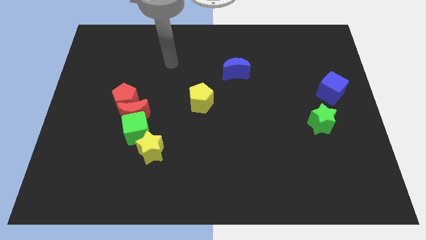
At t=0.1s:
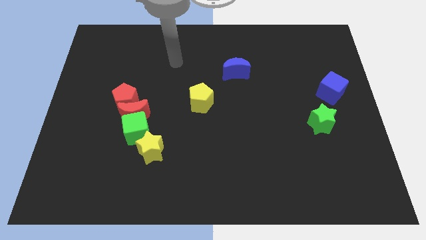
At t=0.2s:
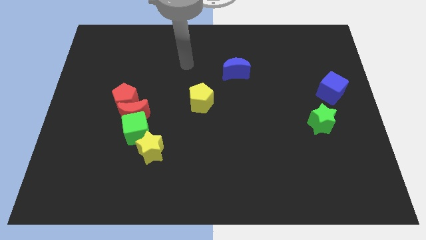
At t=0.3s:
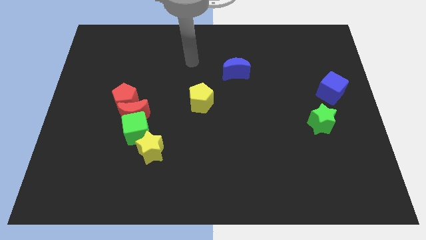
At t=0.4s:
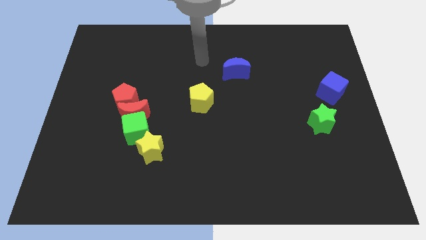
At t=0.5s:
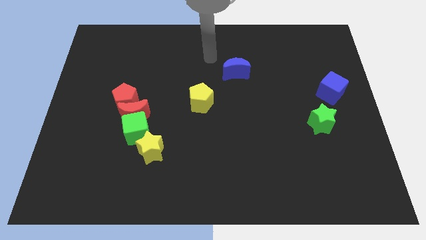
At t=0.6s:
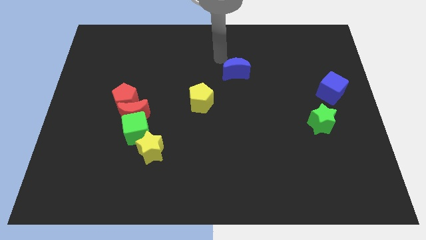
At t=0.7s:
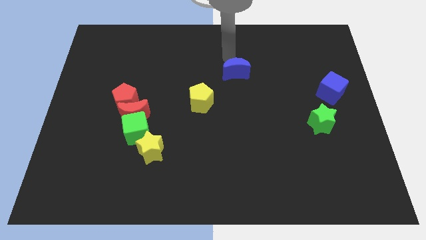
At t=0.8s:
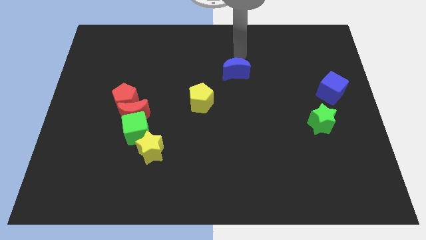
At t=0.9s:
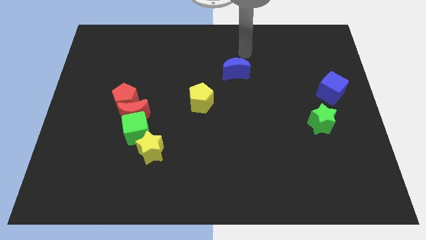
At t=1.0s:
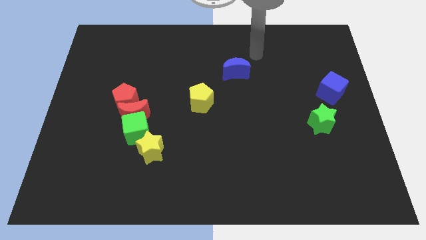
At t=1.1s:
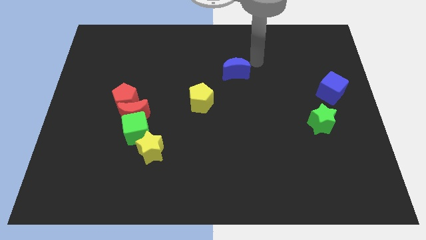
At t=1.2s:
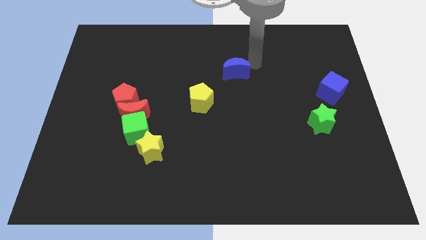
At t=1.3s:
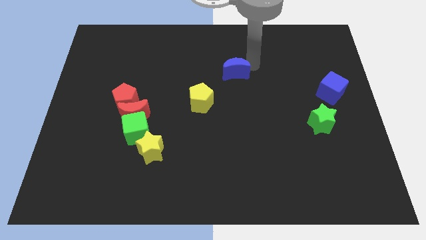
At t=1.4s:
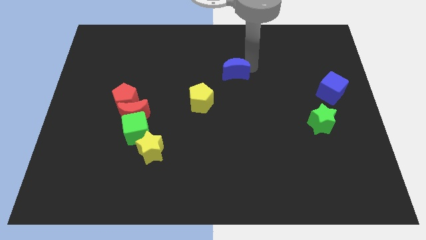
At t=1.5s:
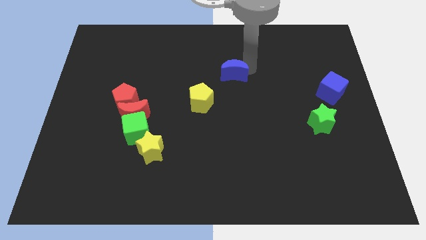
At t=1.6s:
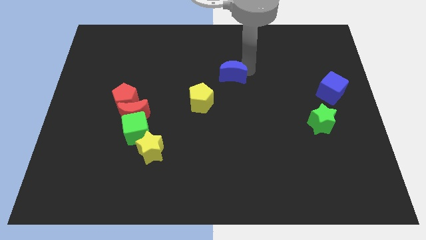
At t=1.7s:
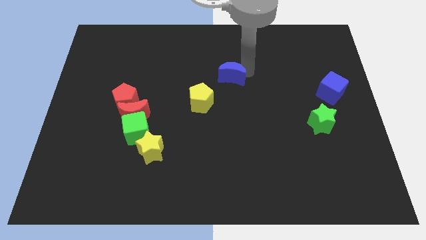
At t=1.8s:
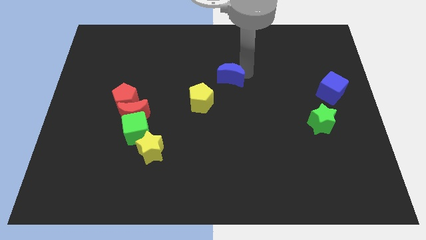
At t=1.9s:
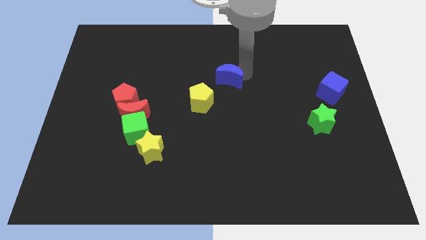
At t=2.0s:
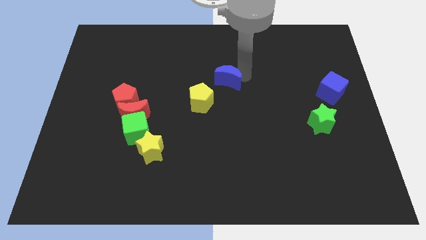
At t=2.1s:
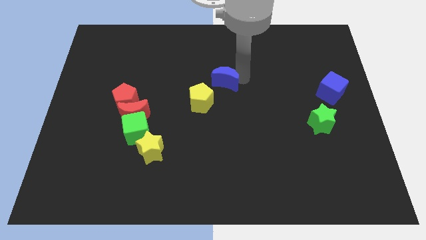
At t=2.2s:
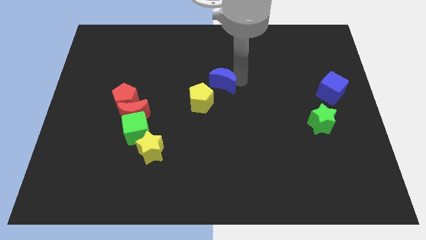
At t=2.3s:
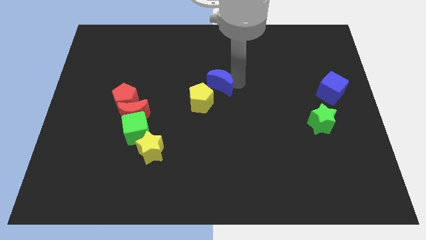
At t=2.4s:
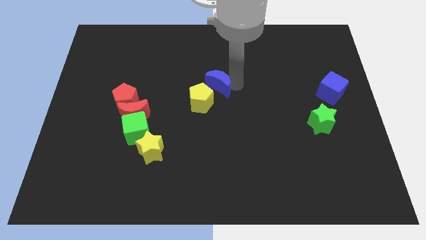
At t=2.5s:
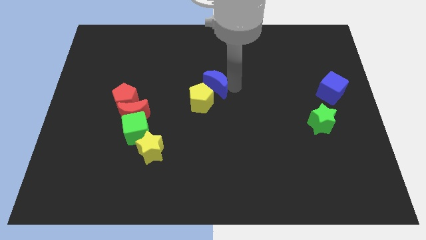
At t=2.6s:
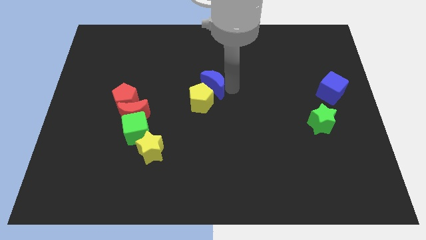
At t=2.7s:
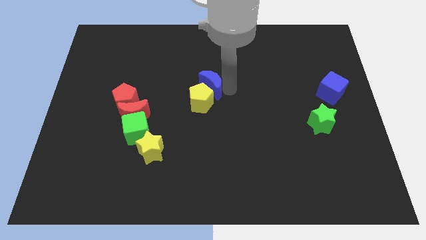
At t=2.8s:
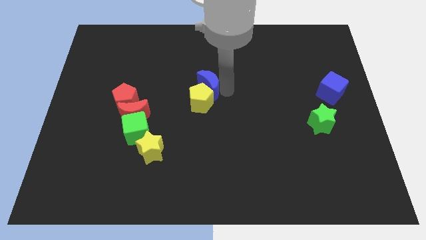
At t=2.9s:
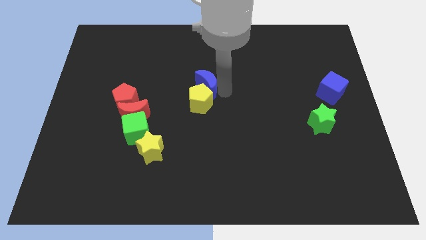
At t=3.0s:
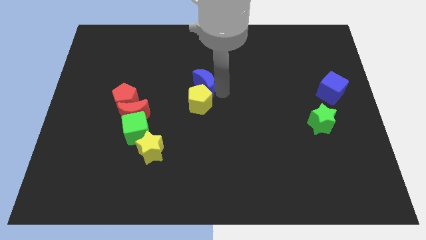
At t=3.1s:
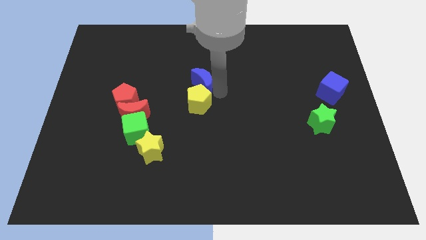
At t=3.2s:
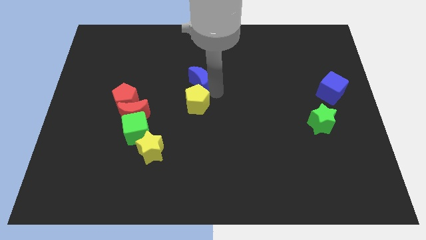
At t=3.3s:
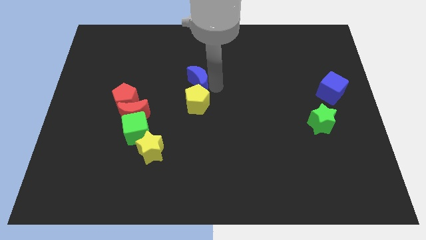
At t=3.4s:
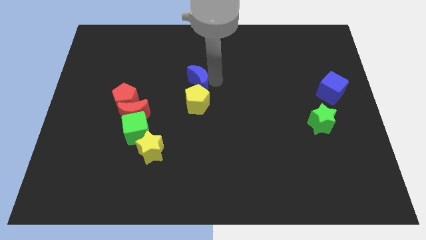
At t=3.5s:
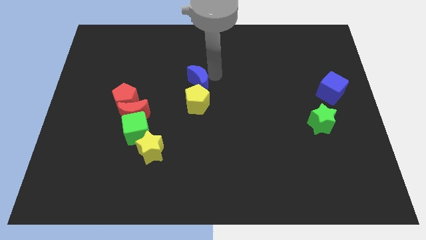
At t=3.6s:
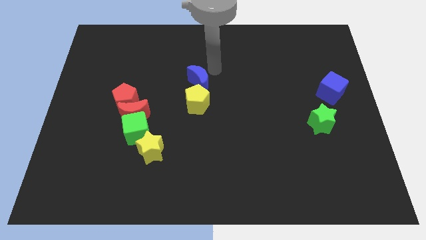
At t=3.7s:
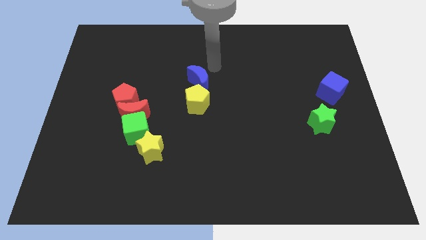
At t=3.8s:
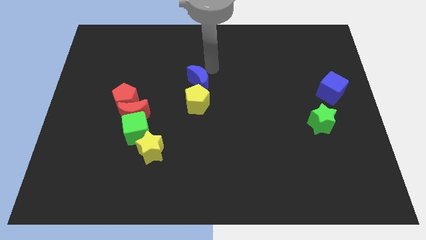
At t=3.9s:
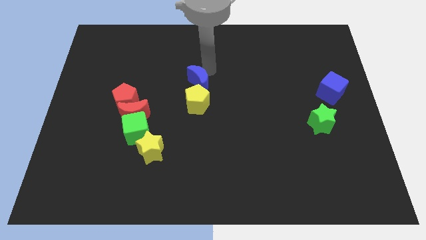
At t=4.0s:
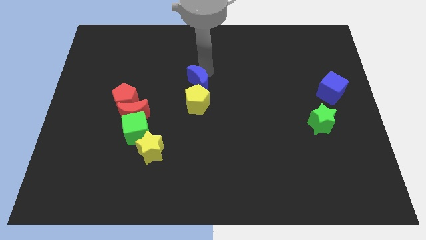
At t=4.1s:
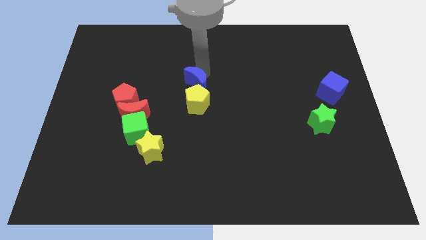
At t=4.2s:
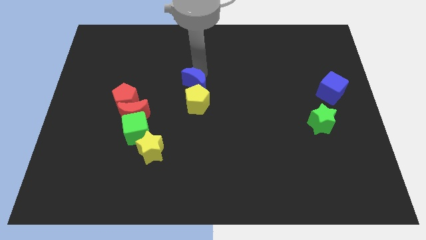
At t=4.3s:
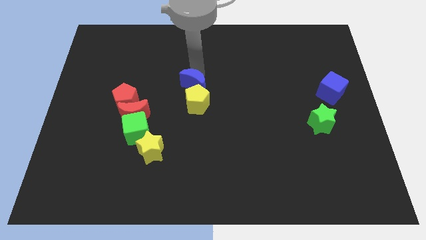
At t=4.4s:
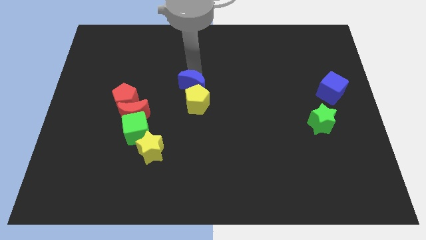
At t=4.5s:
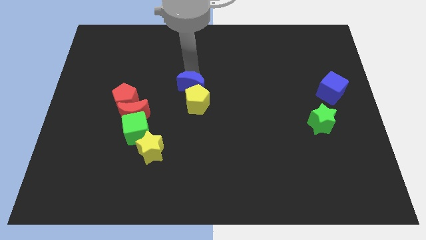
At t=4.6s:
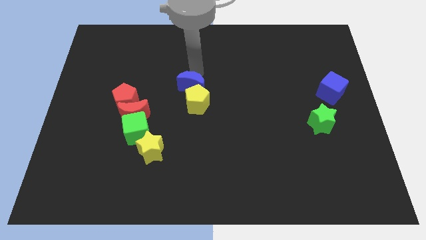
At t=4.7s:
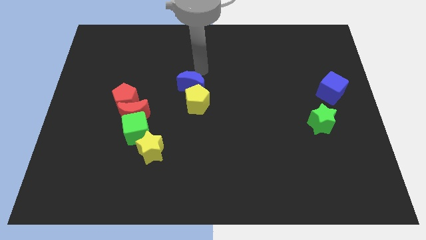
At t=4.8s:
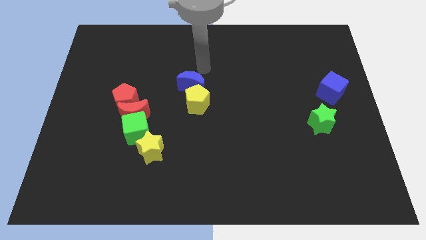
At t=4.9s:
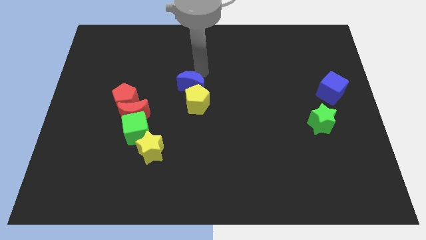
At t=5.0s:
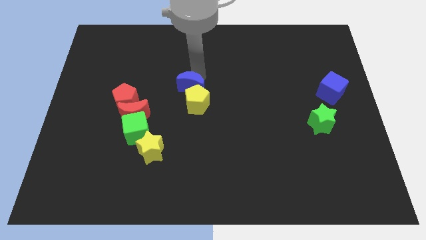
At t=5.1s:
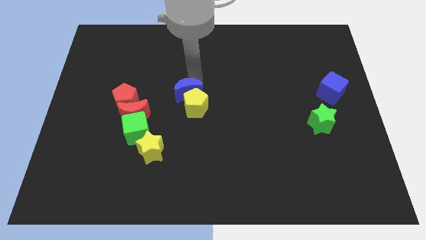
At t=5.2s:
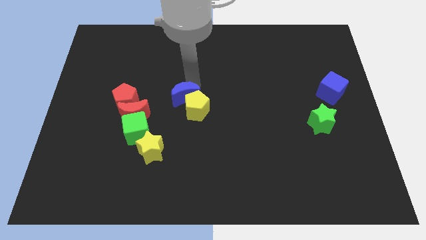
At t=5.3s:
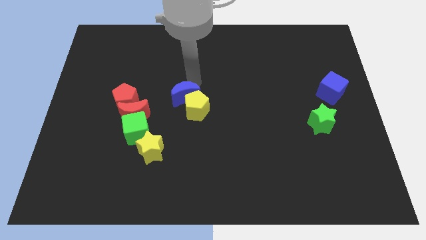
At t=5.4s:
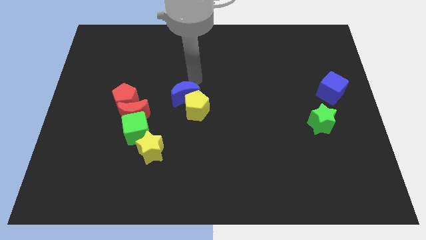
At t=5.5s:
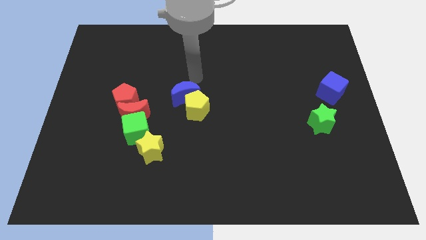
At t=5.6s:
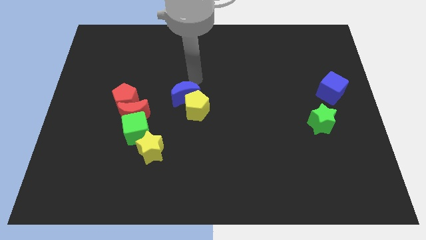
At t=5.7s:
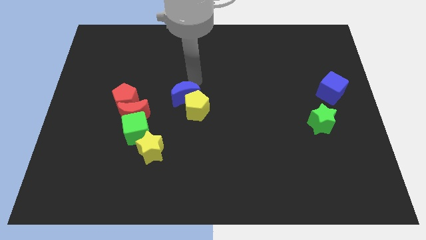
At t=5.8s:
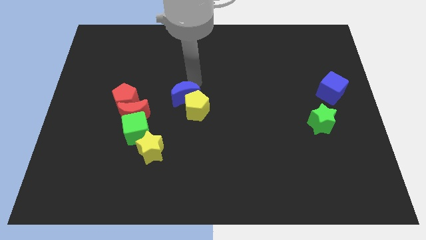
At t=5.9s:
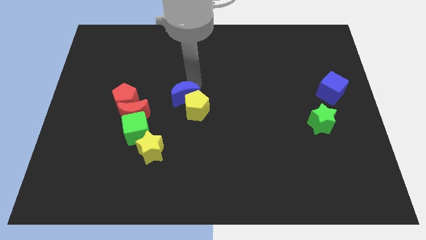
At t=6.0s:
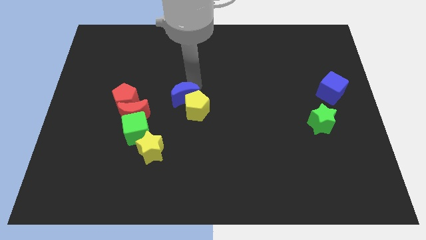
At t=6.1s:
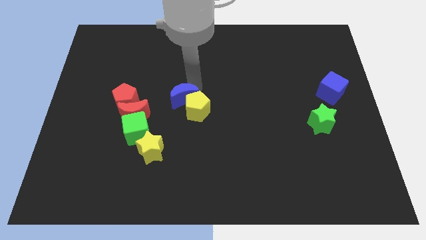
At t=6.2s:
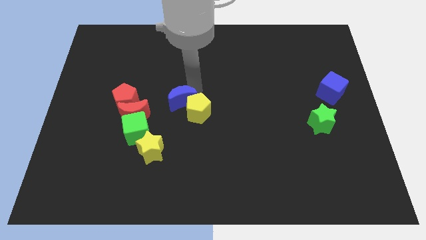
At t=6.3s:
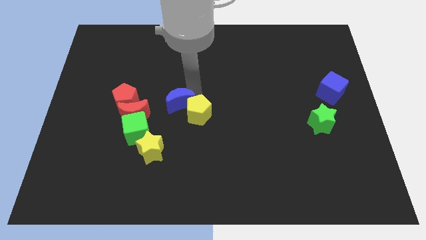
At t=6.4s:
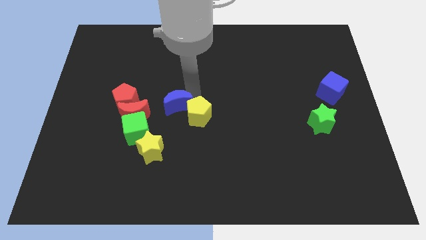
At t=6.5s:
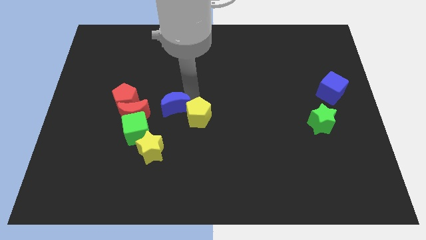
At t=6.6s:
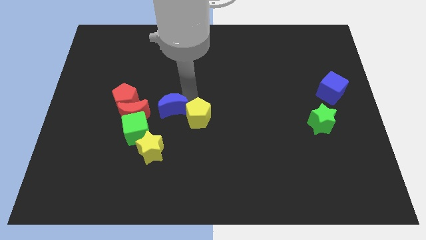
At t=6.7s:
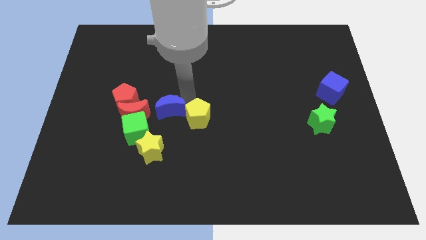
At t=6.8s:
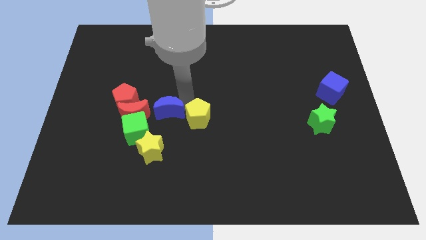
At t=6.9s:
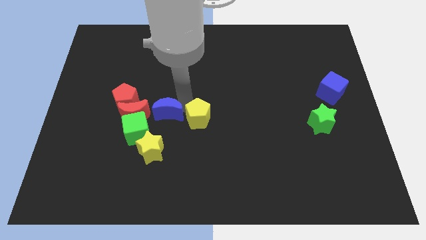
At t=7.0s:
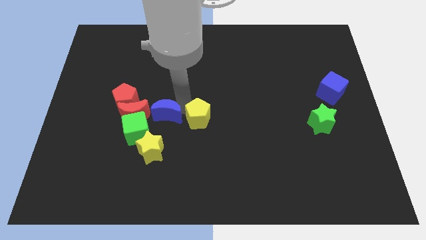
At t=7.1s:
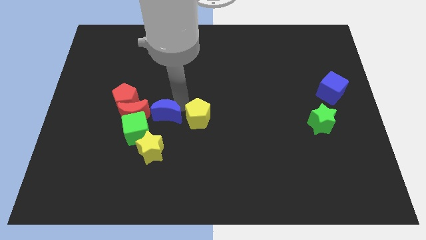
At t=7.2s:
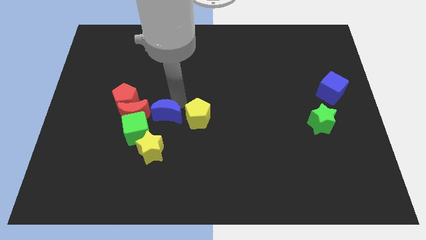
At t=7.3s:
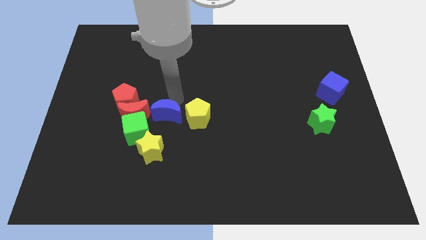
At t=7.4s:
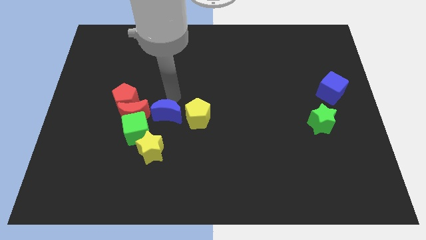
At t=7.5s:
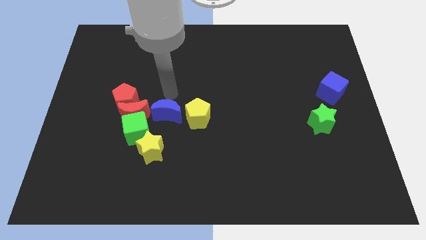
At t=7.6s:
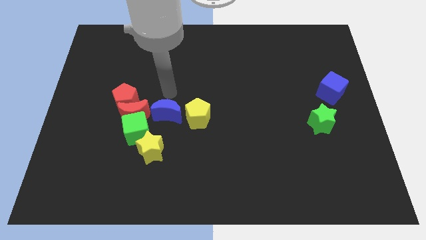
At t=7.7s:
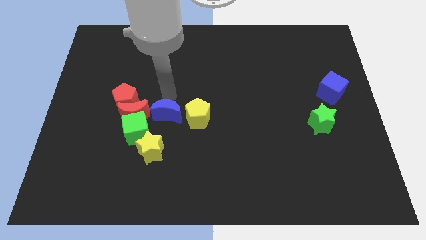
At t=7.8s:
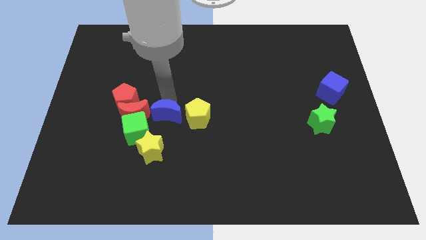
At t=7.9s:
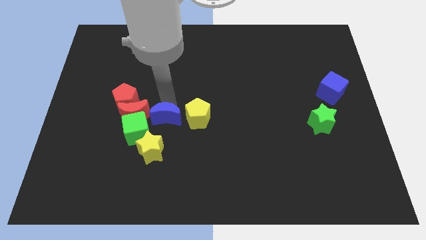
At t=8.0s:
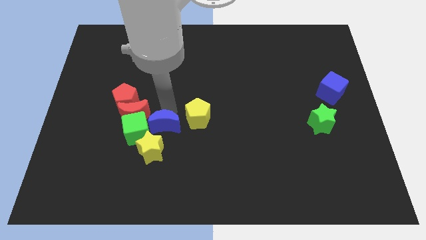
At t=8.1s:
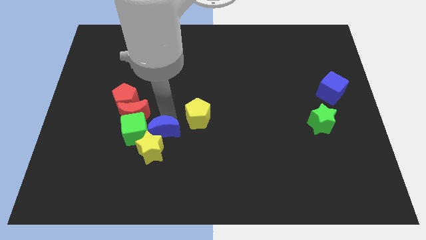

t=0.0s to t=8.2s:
put the blue moon next to the yellow star
